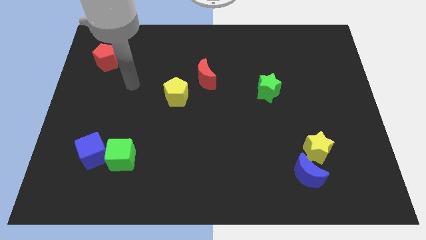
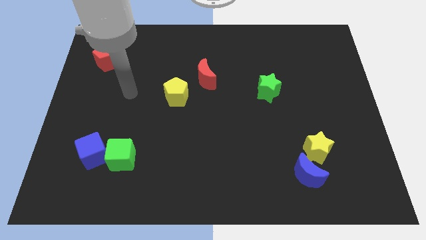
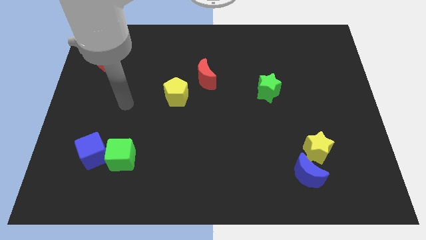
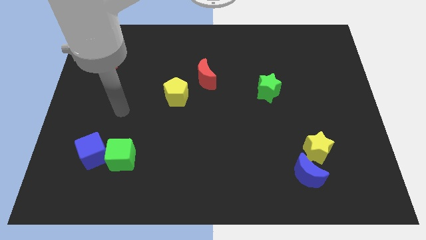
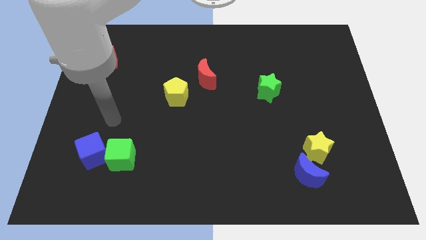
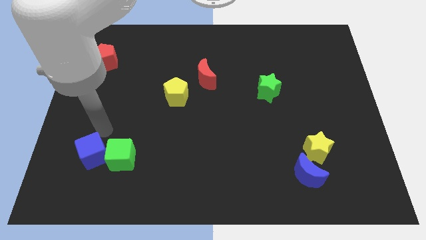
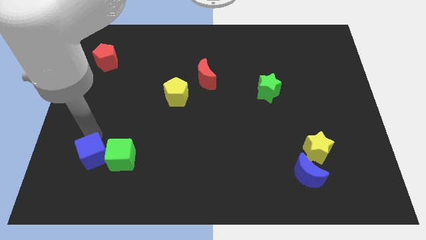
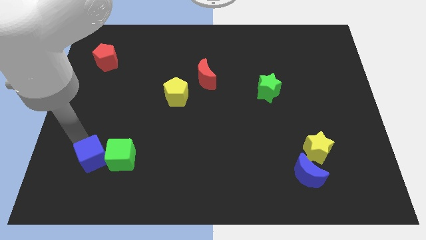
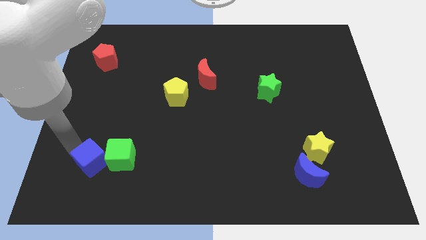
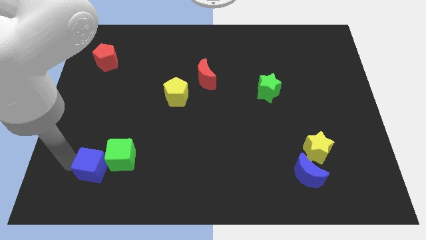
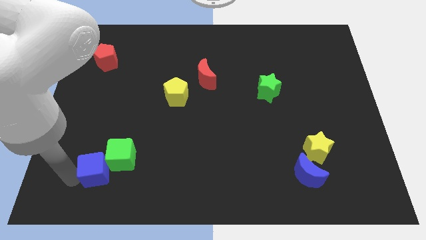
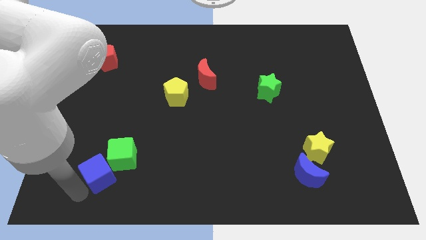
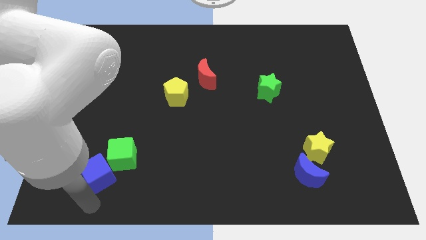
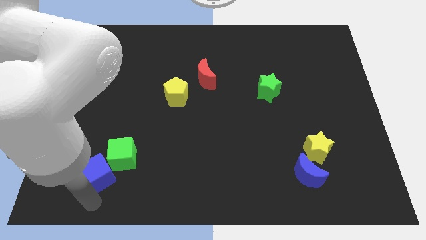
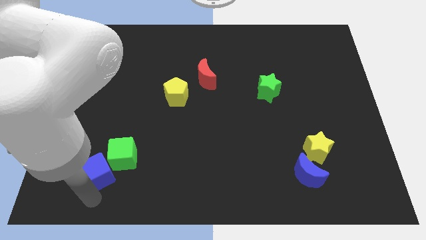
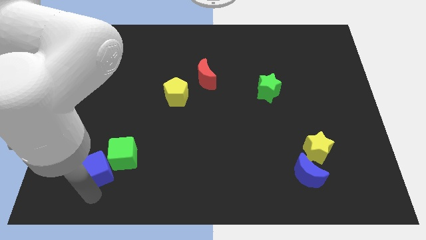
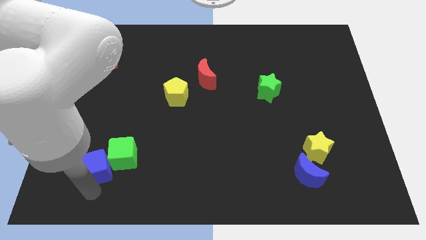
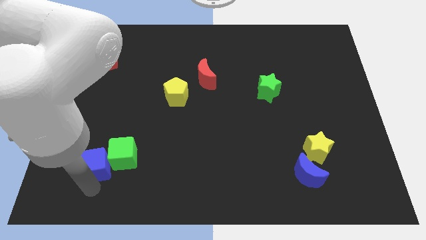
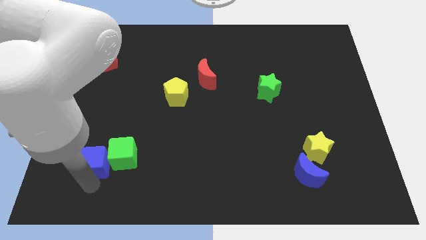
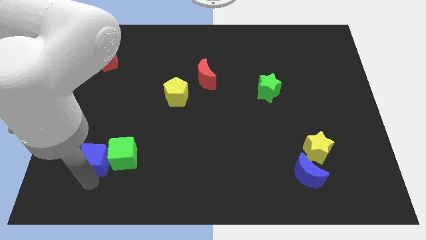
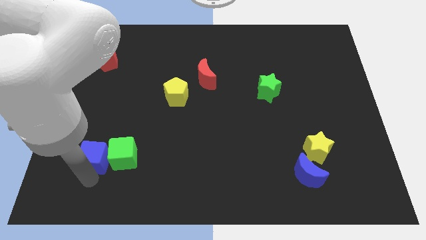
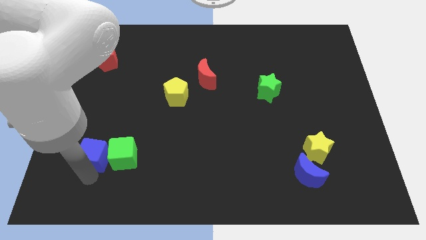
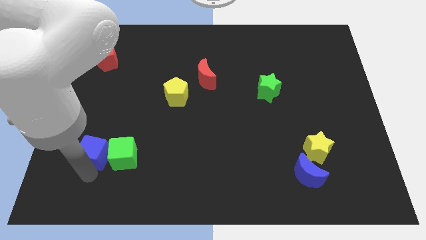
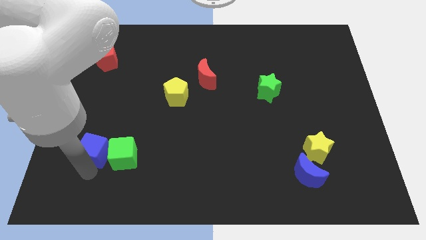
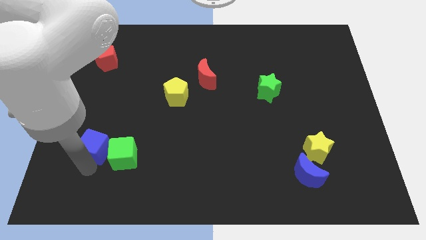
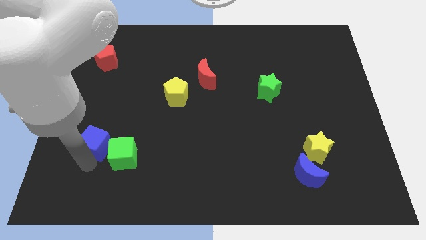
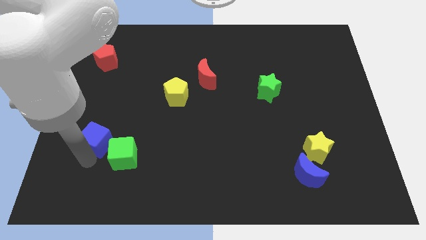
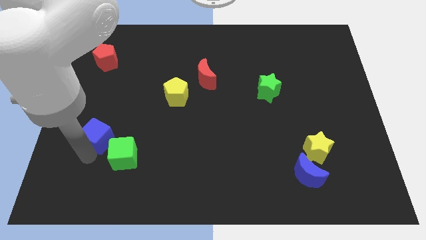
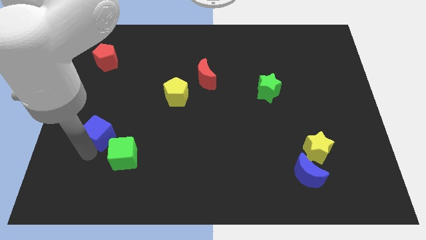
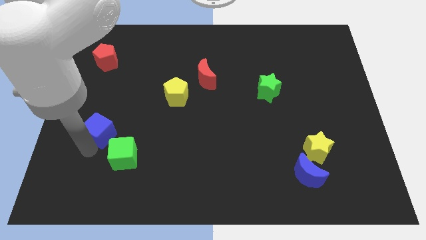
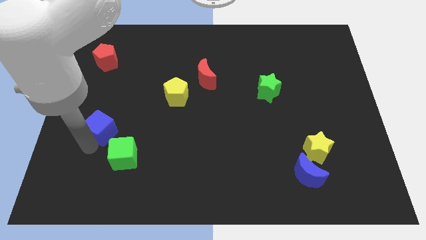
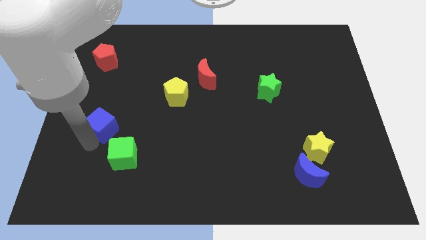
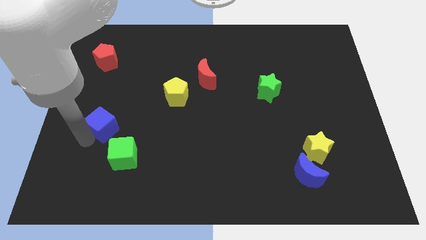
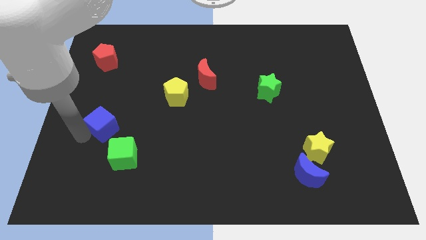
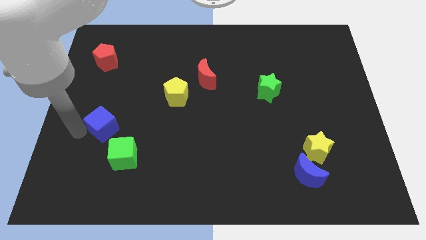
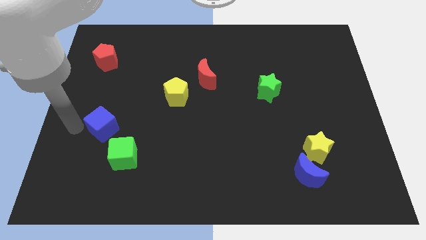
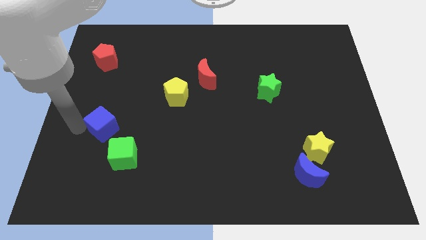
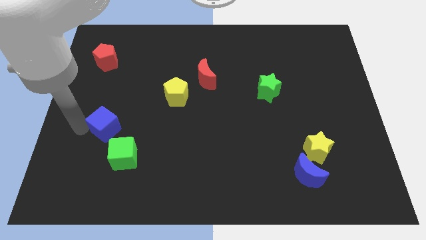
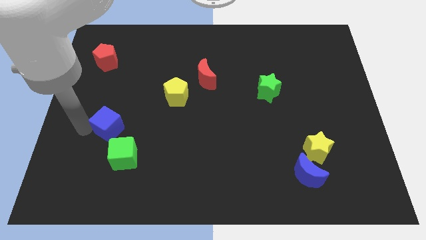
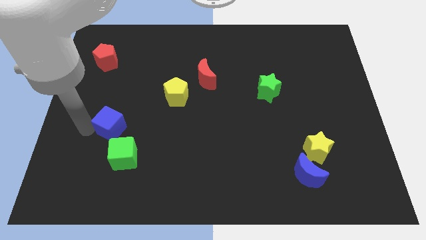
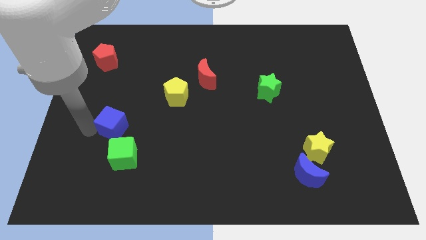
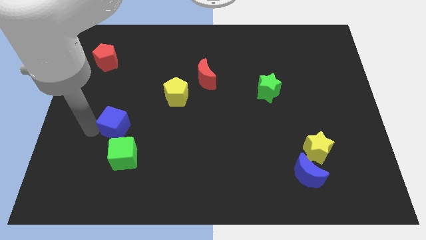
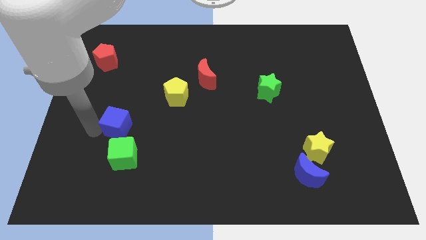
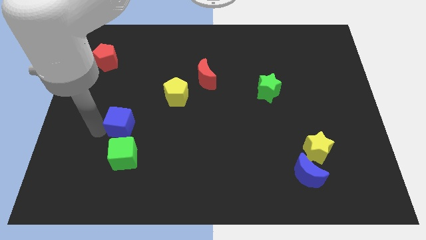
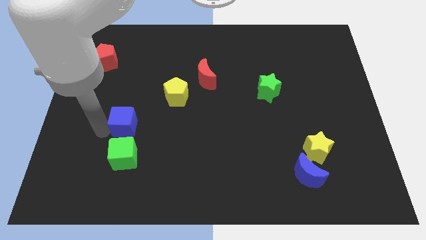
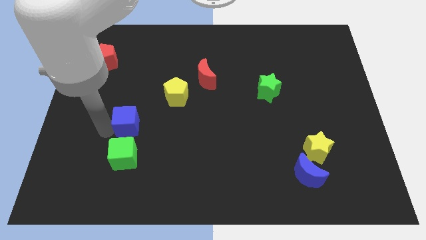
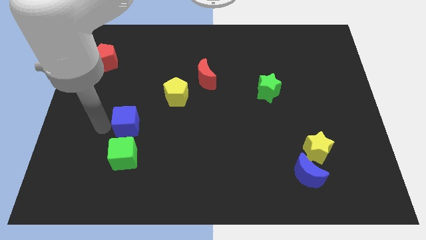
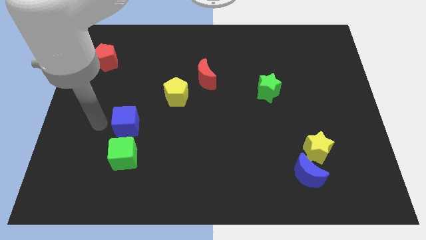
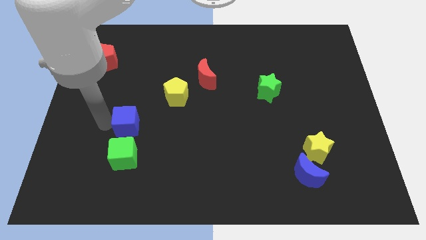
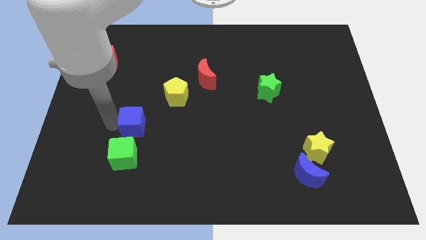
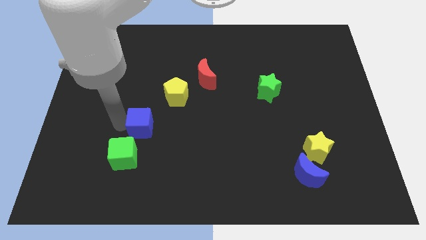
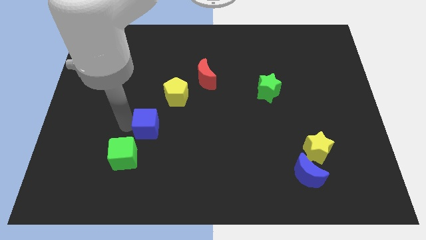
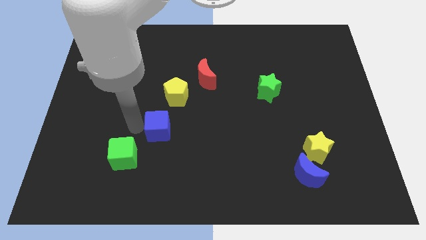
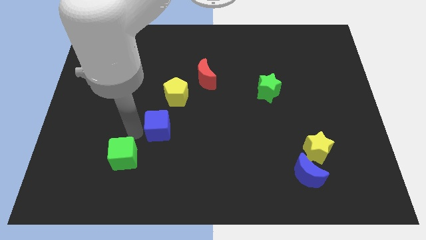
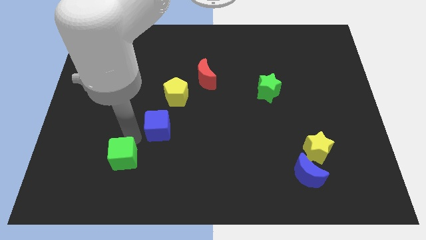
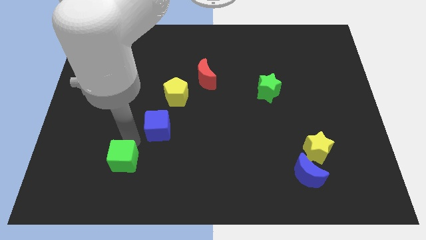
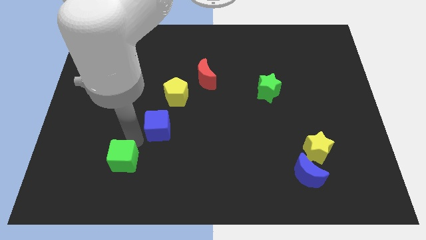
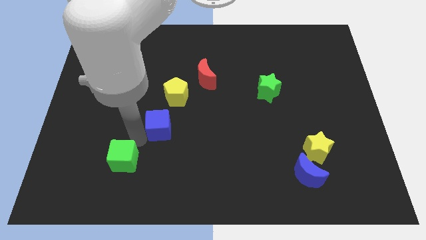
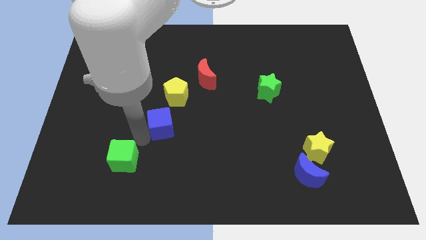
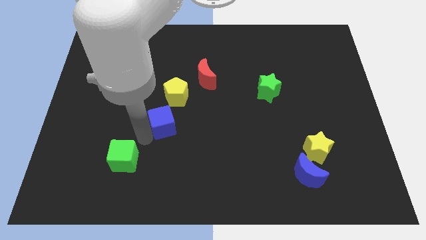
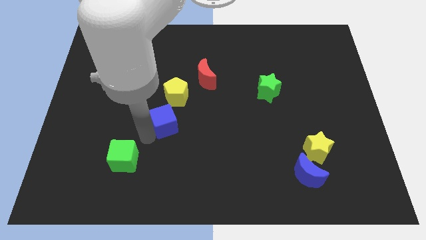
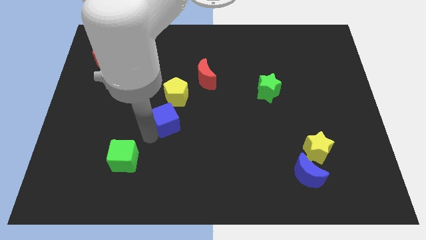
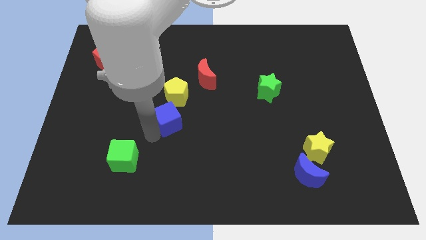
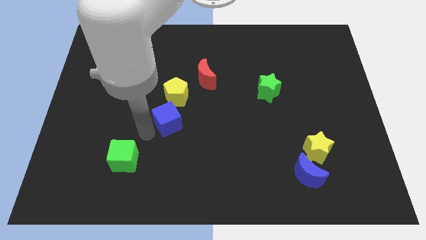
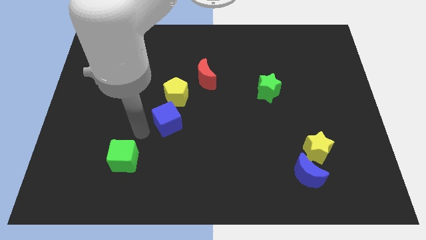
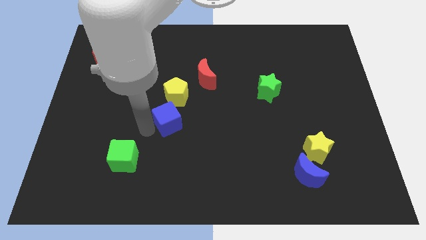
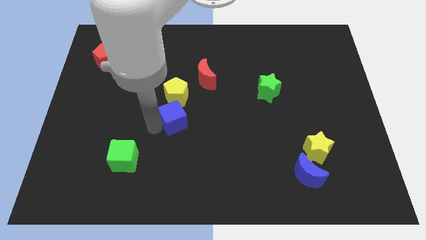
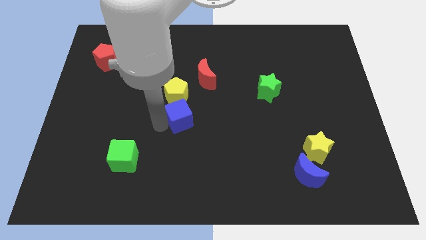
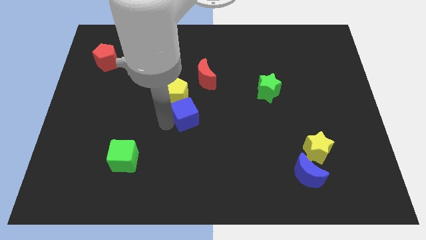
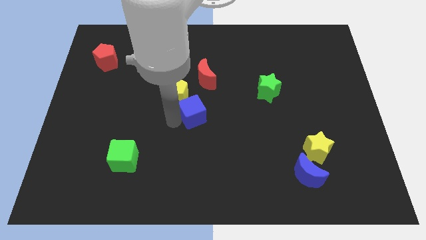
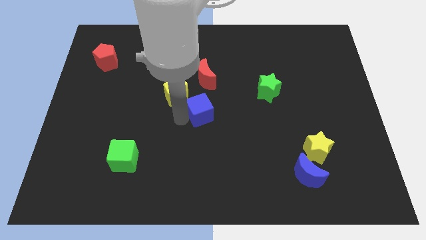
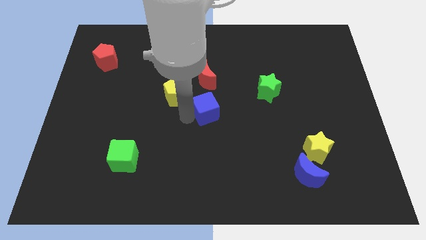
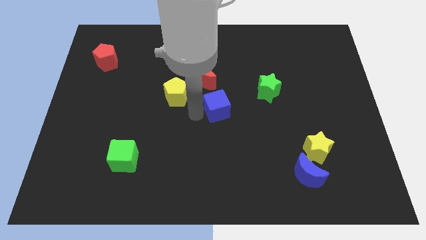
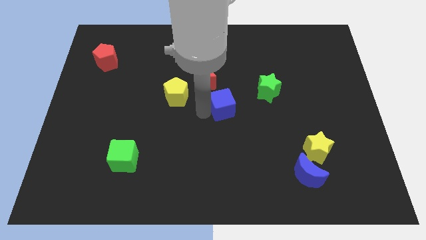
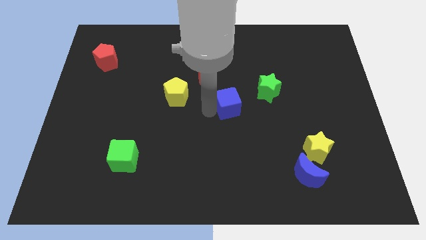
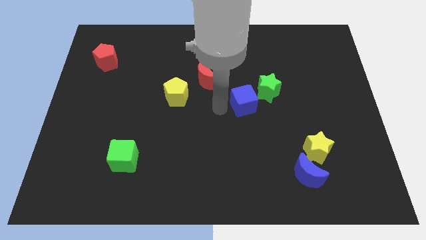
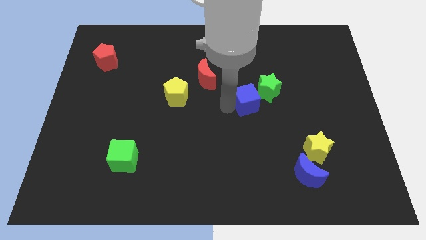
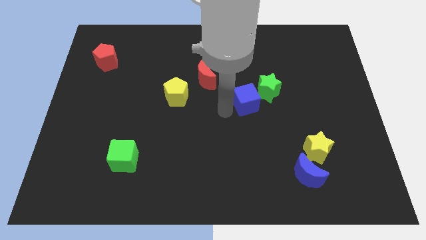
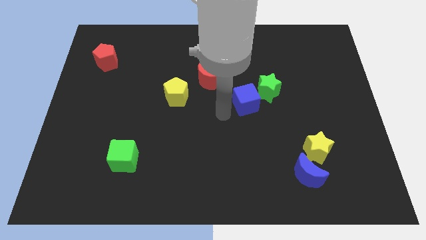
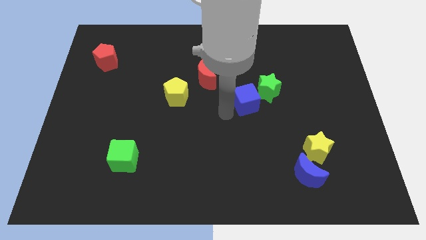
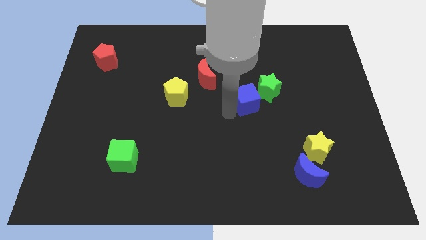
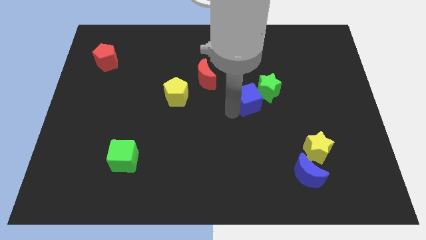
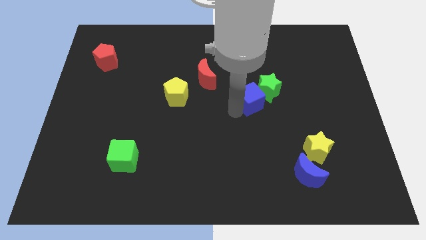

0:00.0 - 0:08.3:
move the blue cube to the green star
